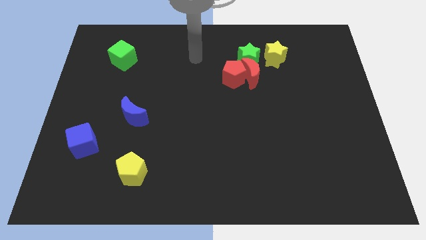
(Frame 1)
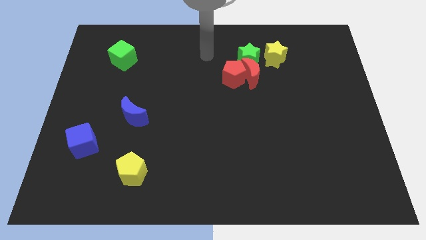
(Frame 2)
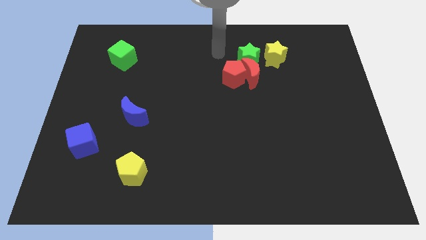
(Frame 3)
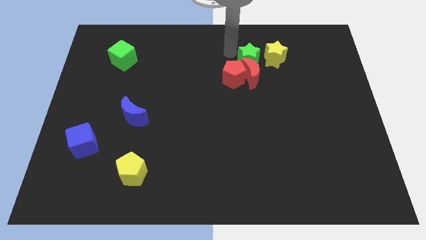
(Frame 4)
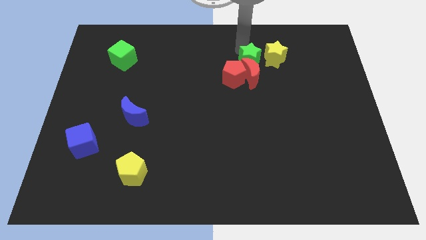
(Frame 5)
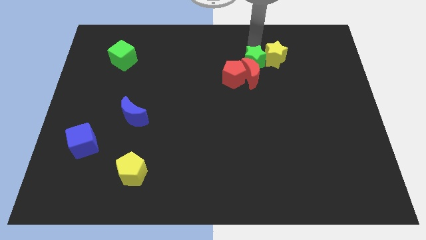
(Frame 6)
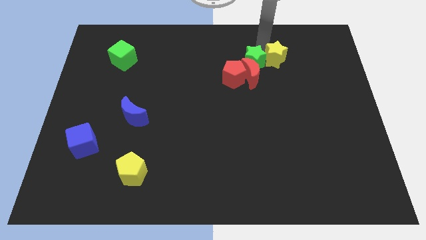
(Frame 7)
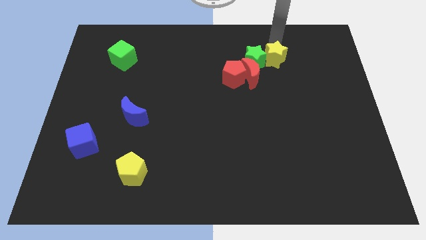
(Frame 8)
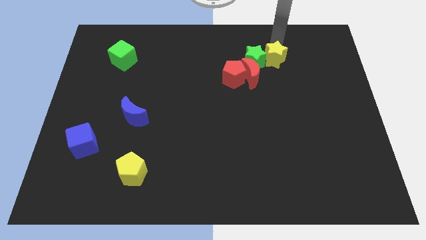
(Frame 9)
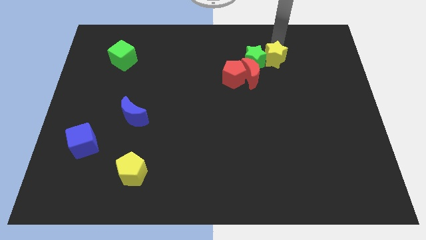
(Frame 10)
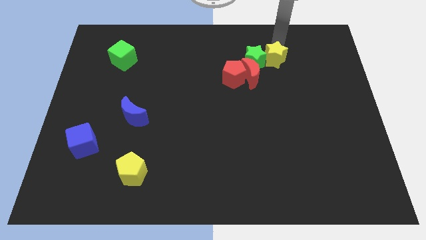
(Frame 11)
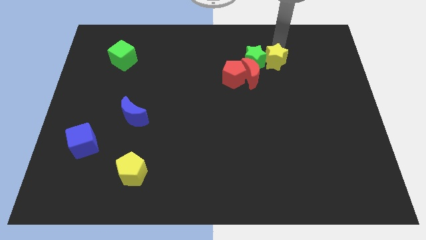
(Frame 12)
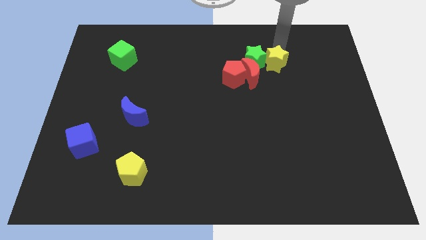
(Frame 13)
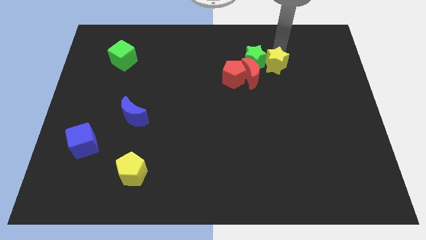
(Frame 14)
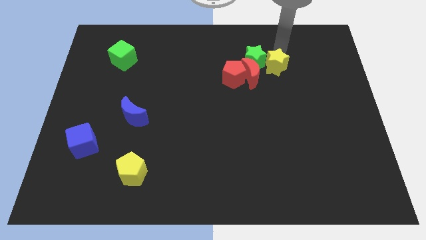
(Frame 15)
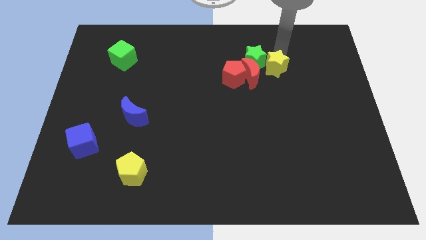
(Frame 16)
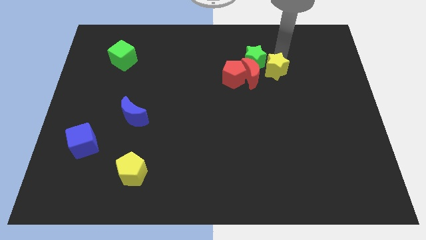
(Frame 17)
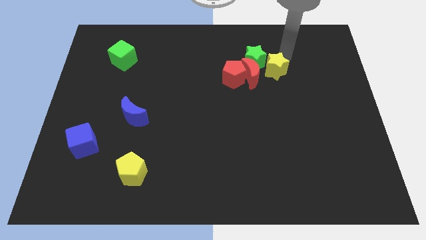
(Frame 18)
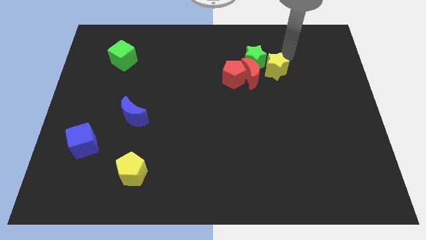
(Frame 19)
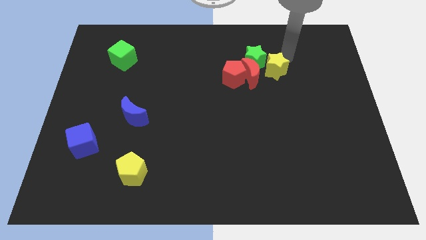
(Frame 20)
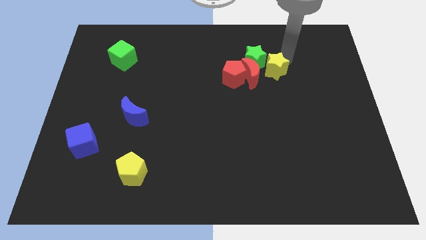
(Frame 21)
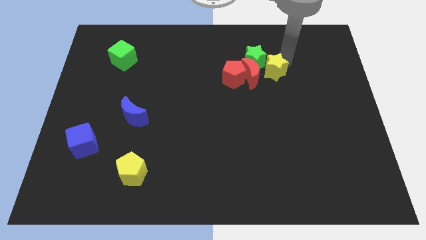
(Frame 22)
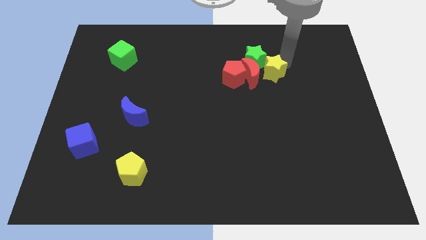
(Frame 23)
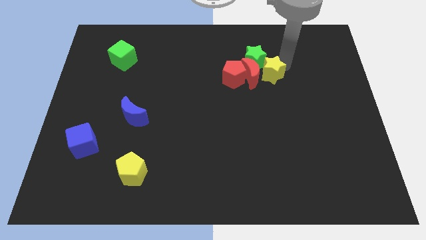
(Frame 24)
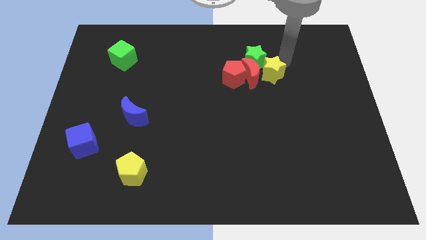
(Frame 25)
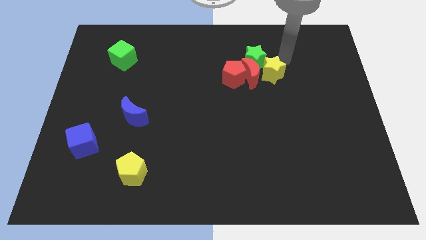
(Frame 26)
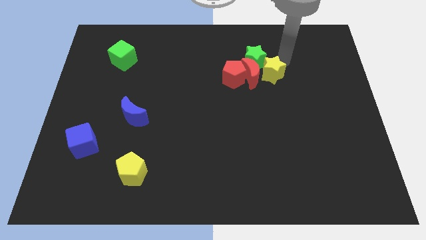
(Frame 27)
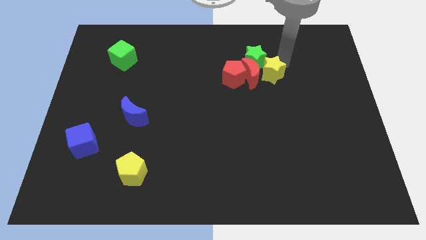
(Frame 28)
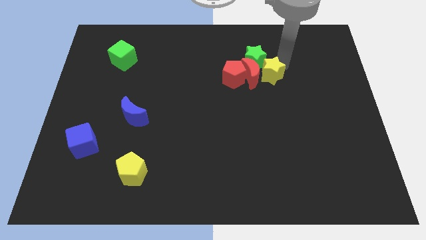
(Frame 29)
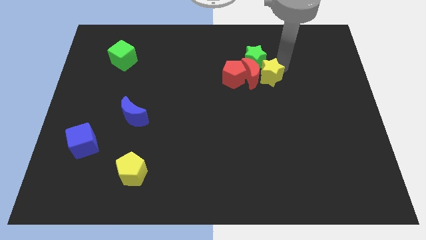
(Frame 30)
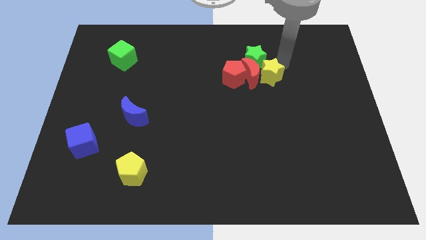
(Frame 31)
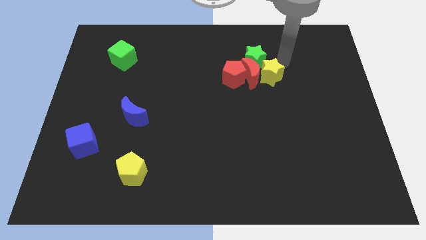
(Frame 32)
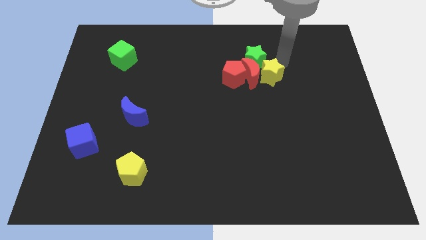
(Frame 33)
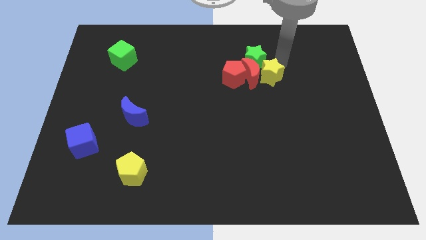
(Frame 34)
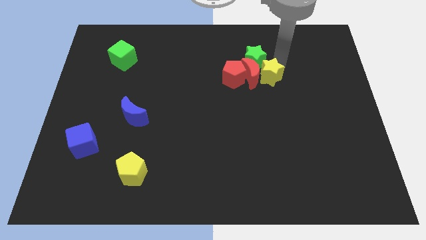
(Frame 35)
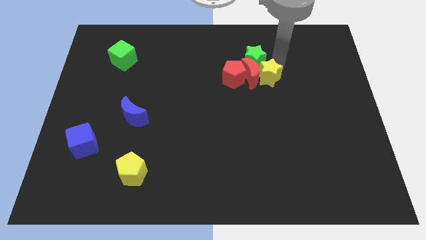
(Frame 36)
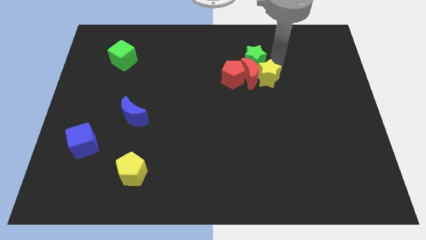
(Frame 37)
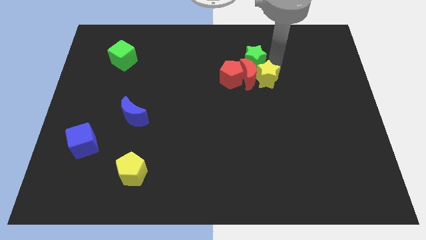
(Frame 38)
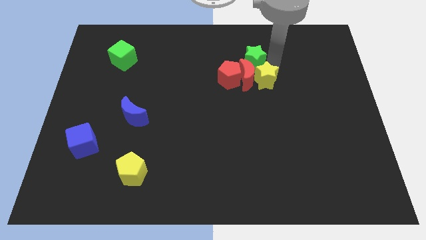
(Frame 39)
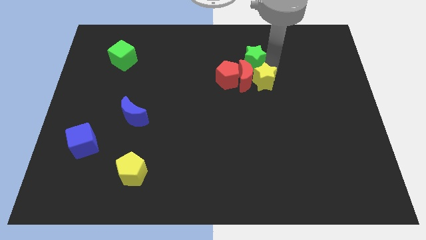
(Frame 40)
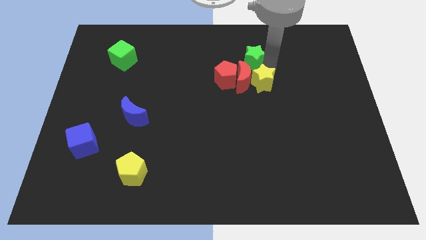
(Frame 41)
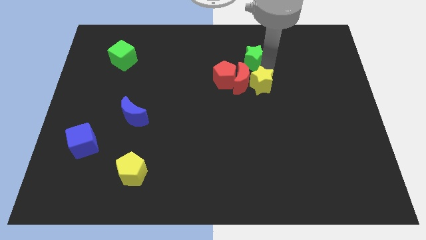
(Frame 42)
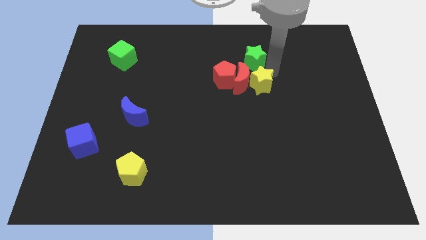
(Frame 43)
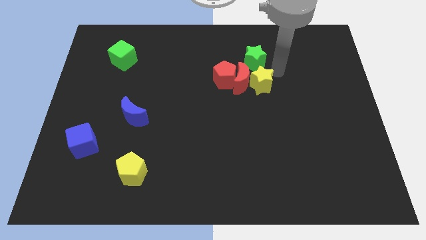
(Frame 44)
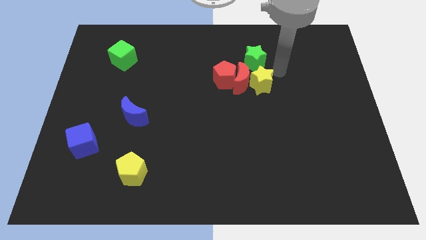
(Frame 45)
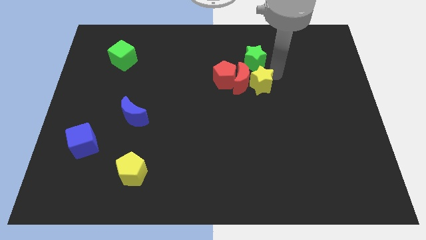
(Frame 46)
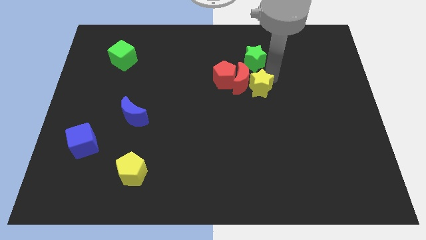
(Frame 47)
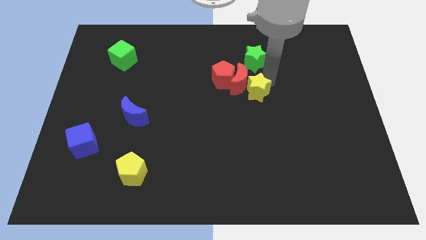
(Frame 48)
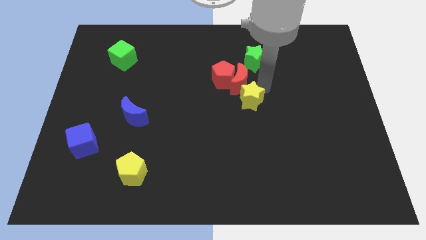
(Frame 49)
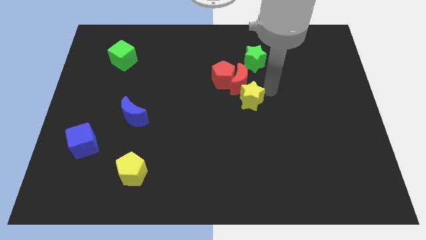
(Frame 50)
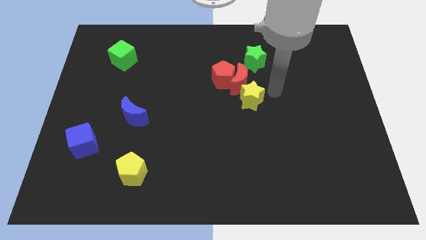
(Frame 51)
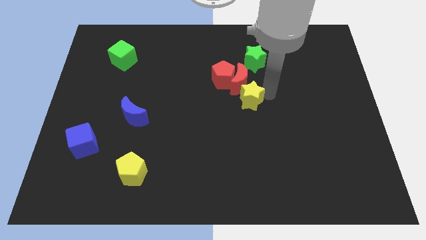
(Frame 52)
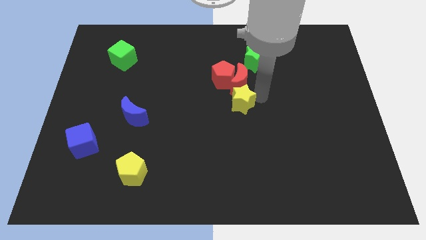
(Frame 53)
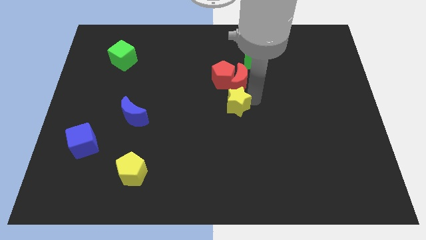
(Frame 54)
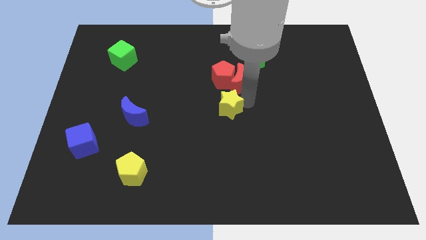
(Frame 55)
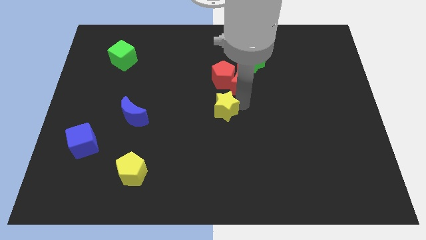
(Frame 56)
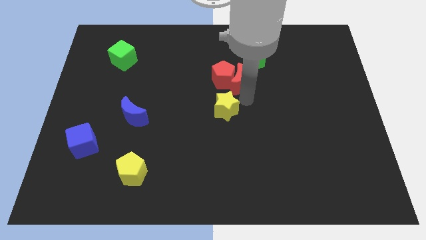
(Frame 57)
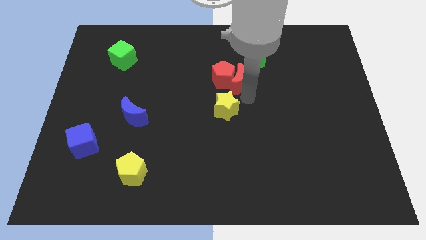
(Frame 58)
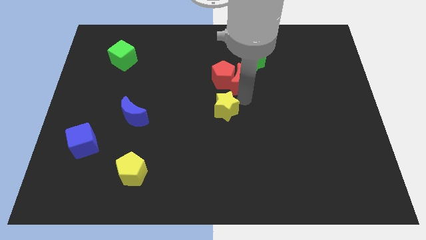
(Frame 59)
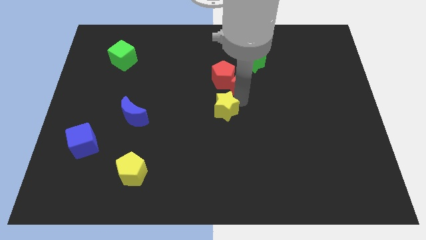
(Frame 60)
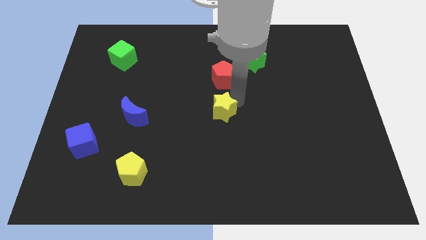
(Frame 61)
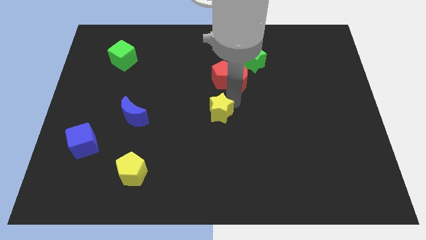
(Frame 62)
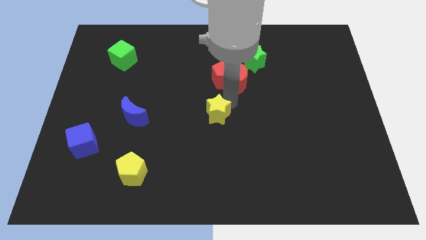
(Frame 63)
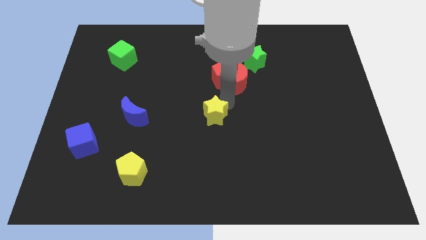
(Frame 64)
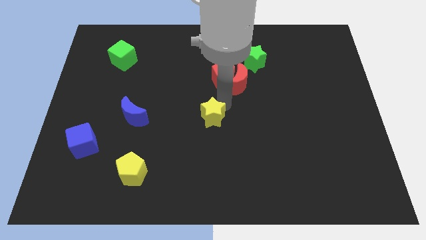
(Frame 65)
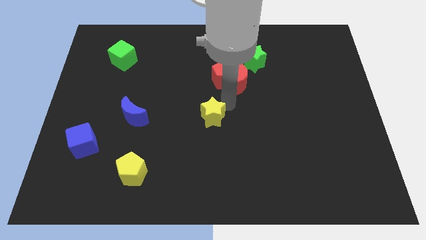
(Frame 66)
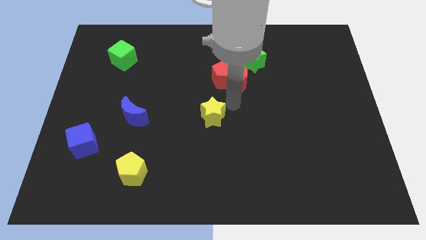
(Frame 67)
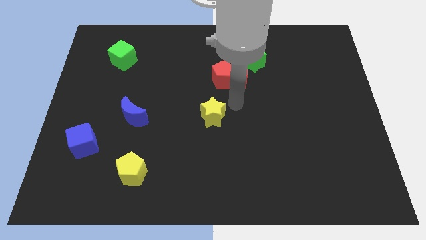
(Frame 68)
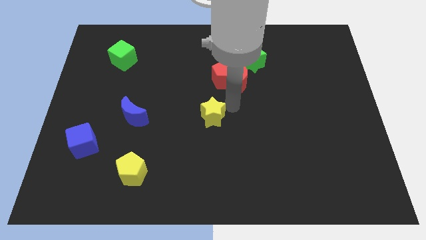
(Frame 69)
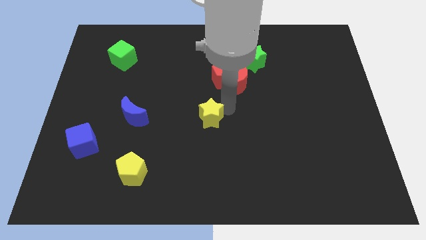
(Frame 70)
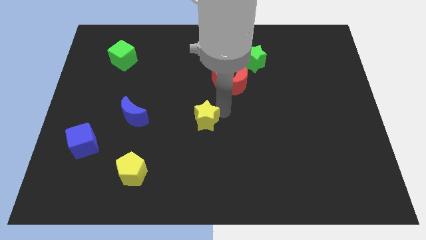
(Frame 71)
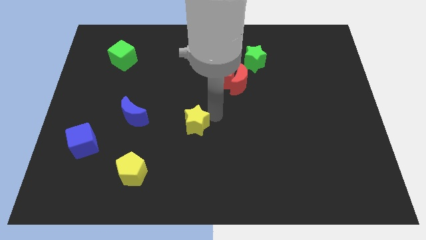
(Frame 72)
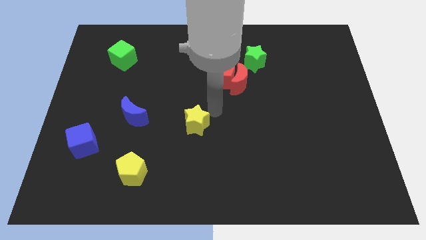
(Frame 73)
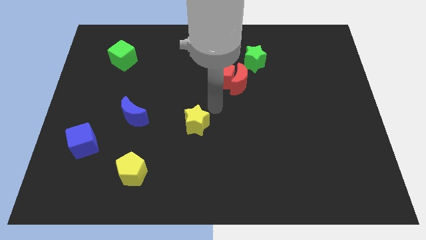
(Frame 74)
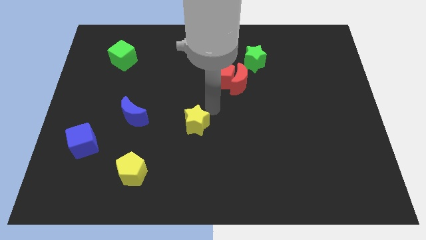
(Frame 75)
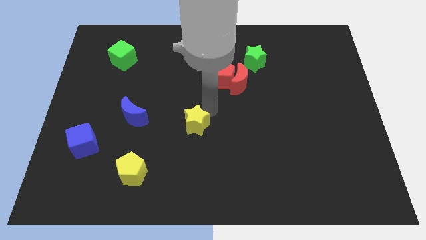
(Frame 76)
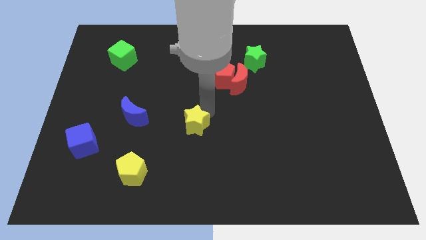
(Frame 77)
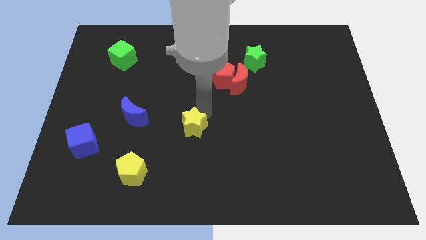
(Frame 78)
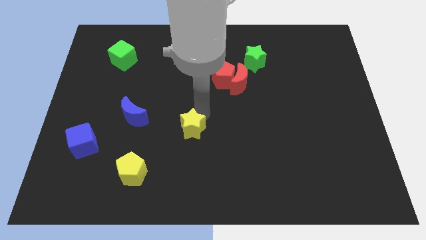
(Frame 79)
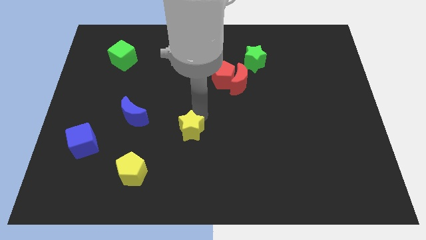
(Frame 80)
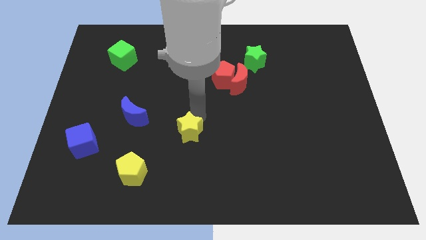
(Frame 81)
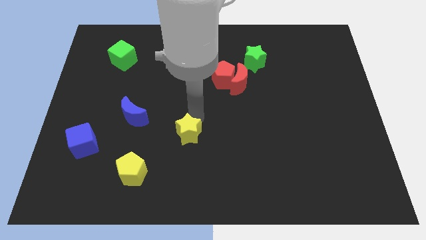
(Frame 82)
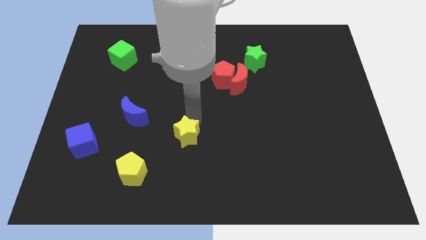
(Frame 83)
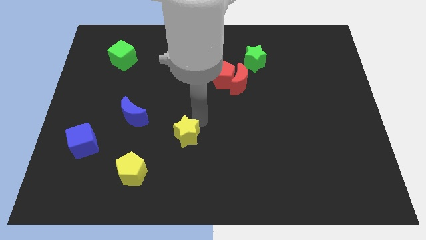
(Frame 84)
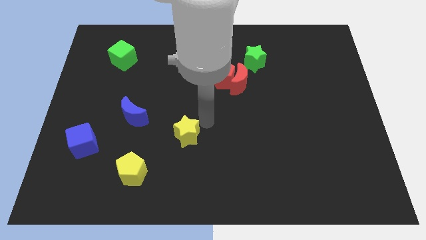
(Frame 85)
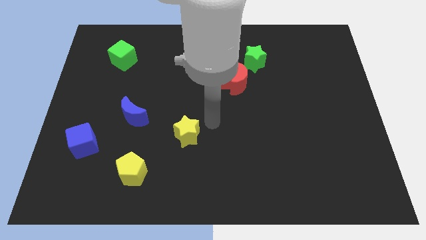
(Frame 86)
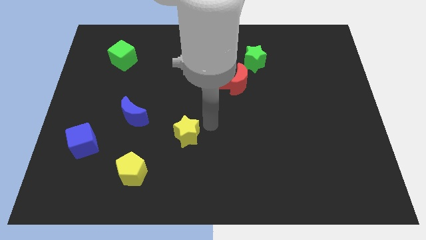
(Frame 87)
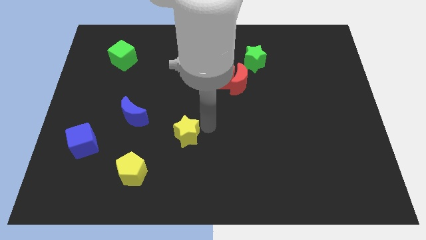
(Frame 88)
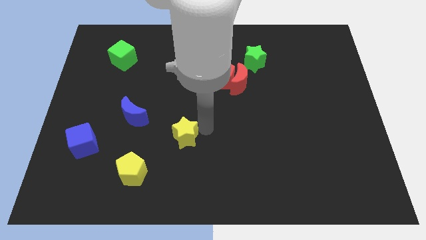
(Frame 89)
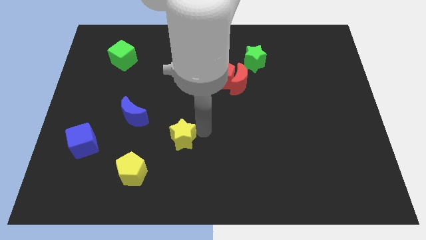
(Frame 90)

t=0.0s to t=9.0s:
put the yellow star diagonally up and to the right of the yellow pentagon
